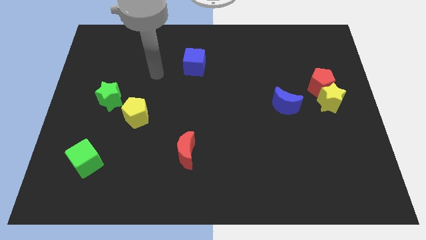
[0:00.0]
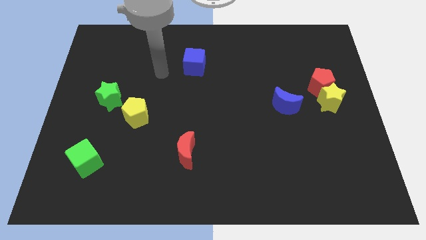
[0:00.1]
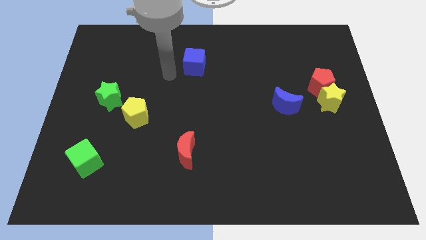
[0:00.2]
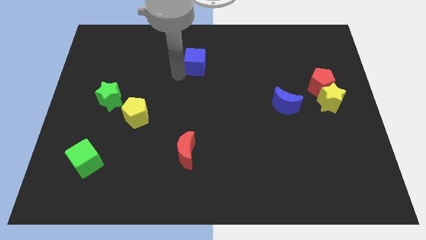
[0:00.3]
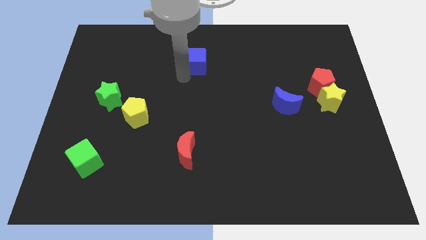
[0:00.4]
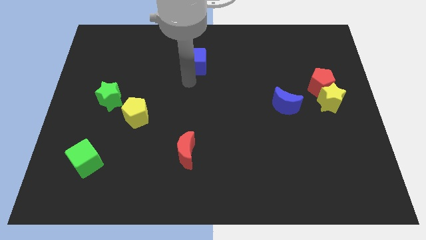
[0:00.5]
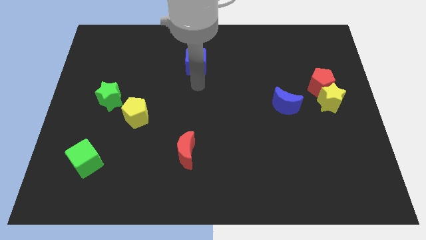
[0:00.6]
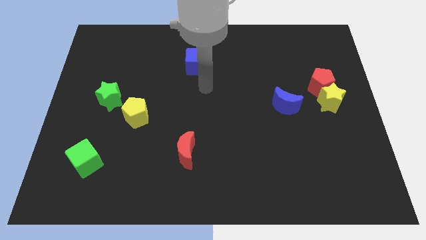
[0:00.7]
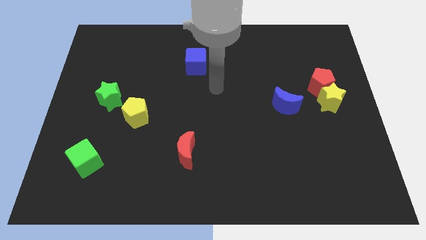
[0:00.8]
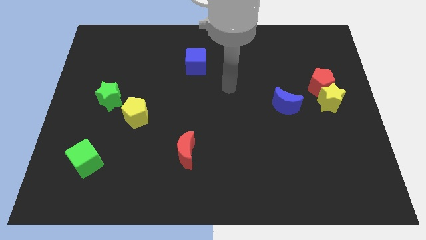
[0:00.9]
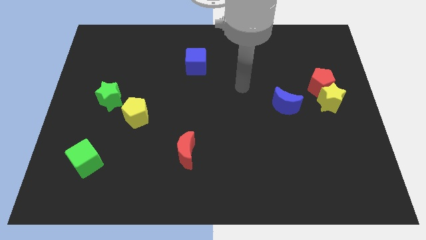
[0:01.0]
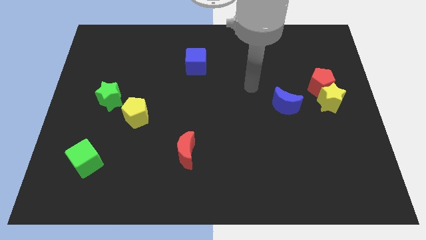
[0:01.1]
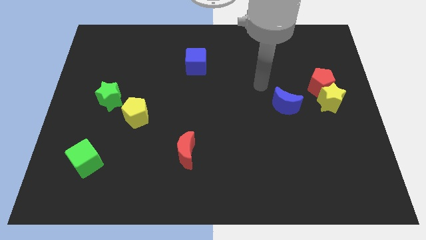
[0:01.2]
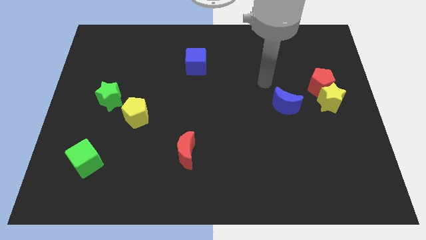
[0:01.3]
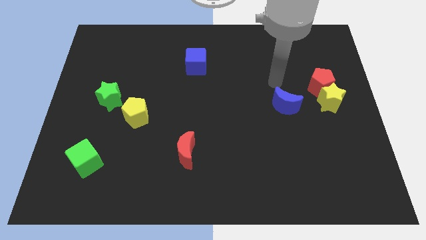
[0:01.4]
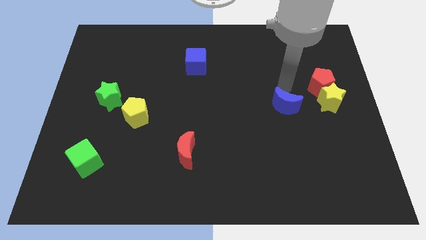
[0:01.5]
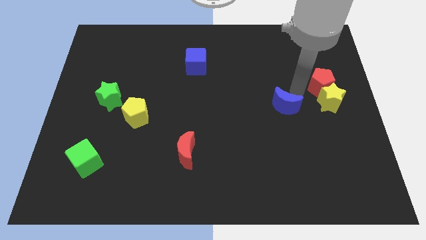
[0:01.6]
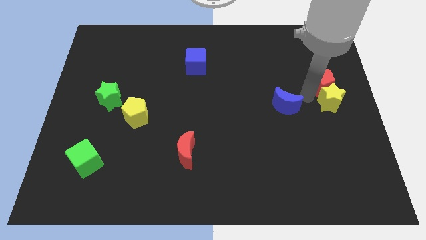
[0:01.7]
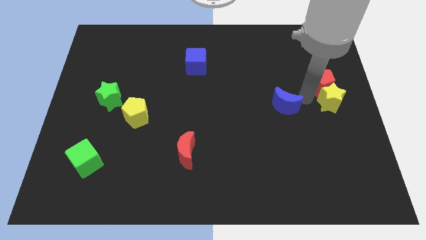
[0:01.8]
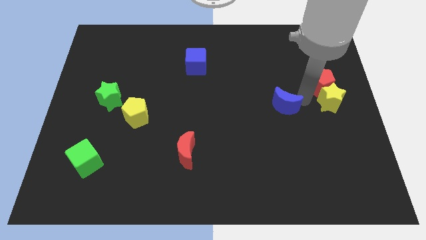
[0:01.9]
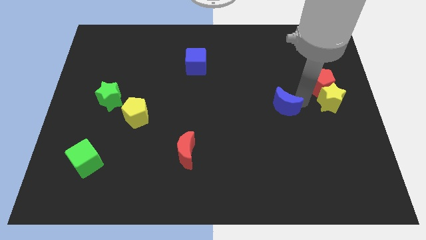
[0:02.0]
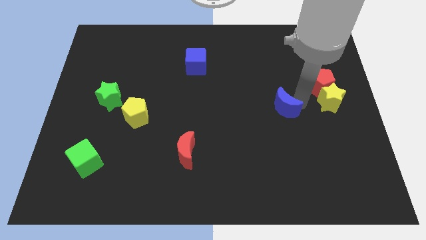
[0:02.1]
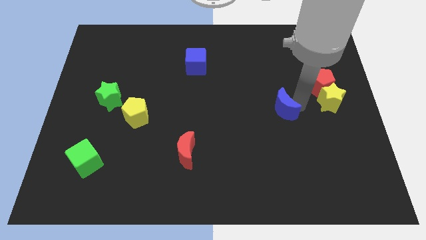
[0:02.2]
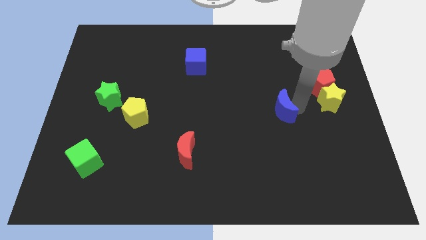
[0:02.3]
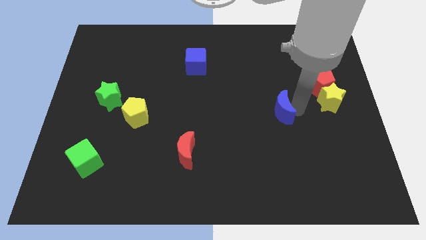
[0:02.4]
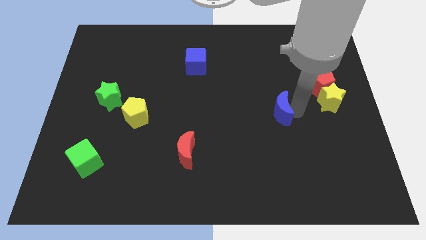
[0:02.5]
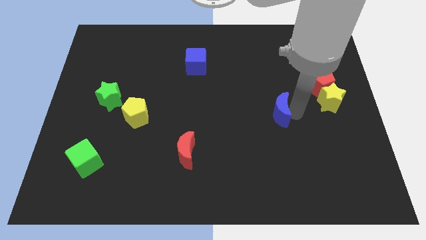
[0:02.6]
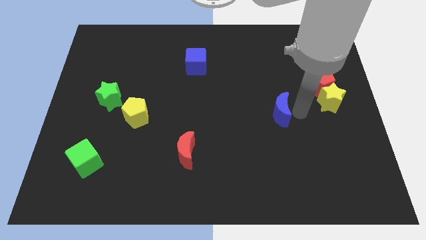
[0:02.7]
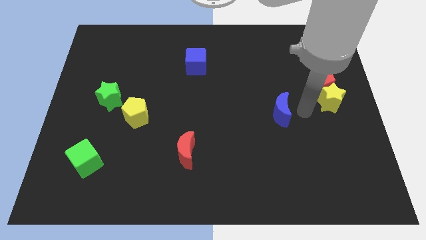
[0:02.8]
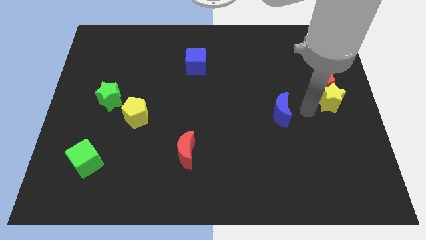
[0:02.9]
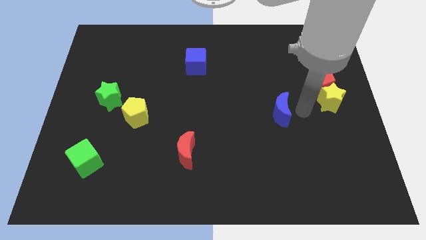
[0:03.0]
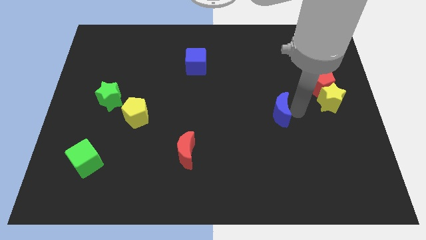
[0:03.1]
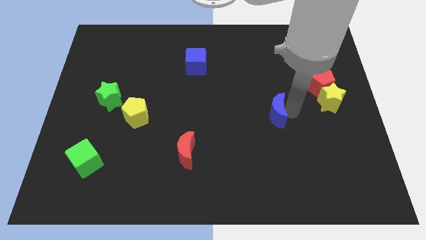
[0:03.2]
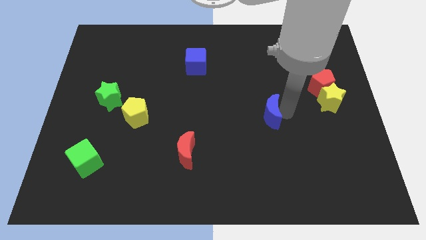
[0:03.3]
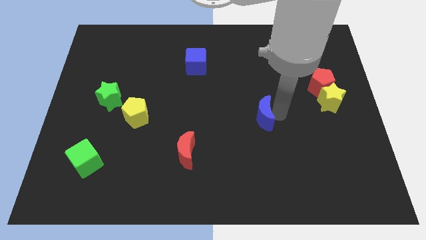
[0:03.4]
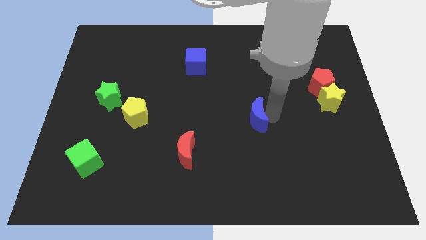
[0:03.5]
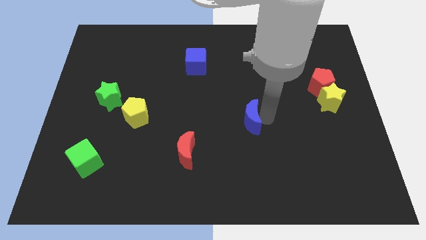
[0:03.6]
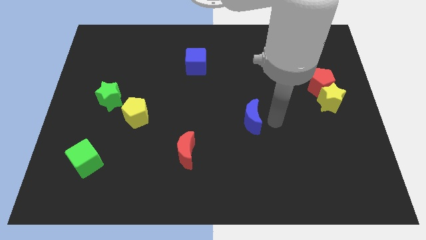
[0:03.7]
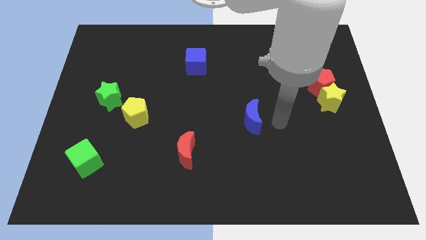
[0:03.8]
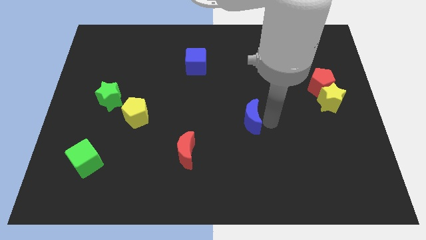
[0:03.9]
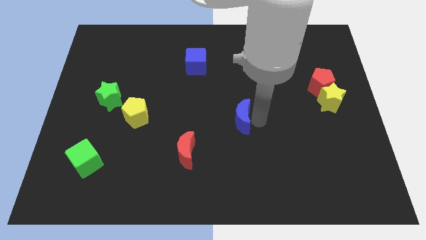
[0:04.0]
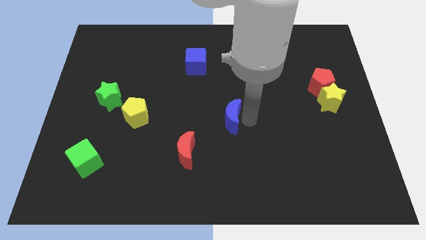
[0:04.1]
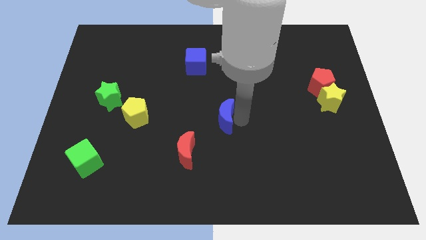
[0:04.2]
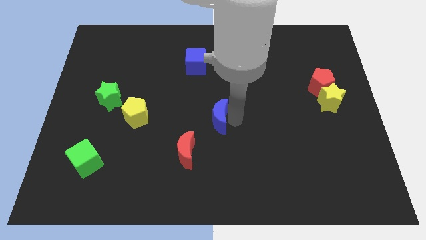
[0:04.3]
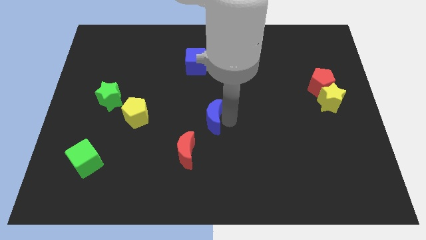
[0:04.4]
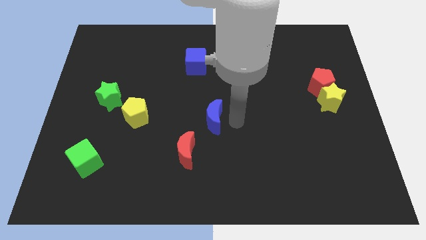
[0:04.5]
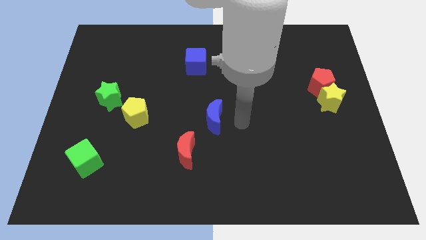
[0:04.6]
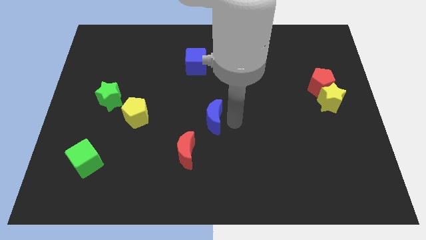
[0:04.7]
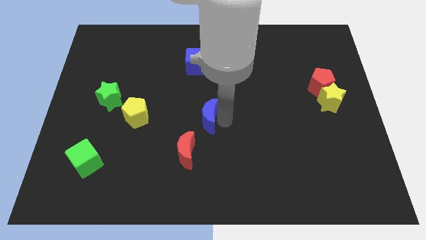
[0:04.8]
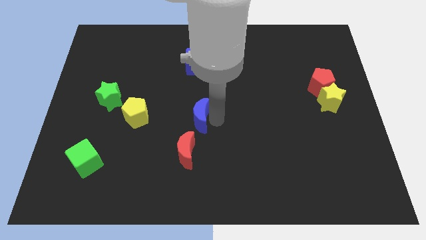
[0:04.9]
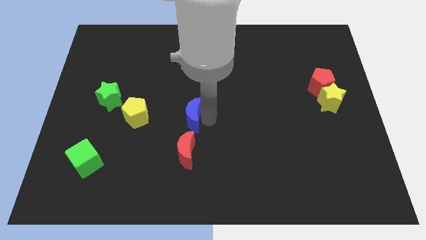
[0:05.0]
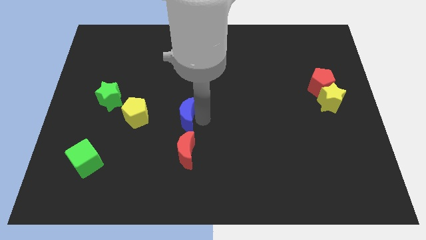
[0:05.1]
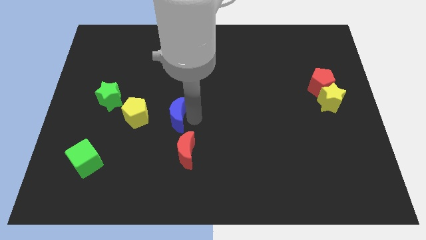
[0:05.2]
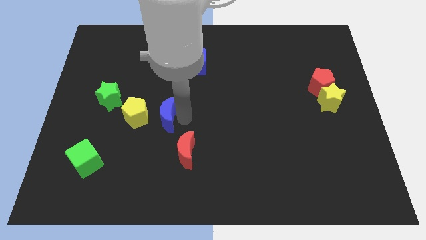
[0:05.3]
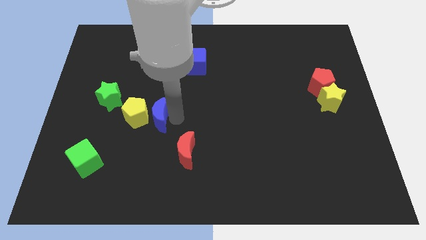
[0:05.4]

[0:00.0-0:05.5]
push the blue moon towards the yellow pentagon
